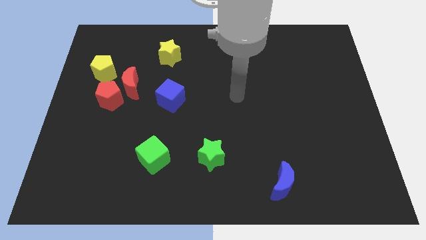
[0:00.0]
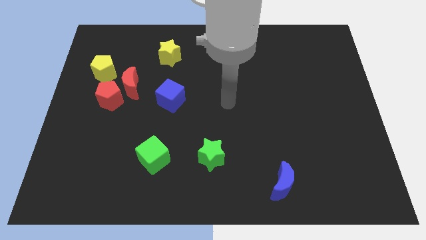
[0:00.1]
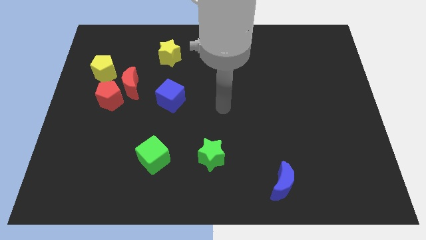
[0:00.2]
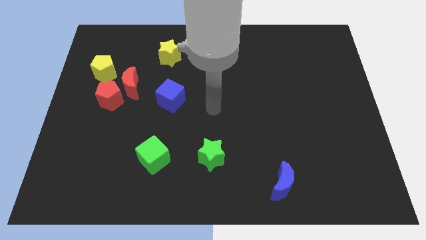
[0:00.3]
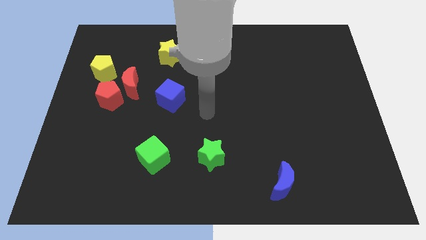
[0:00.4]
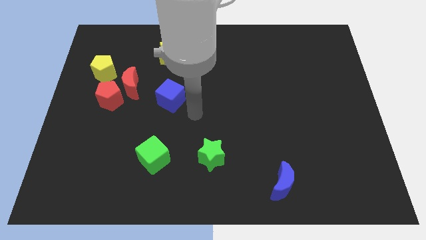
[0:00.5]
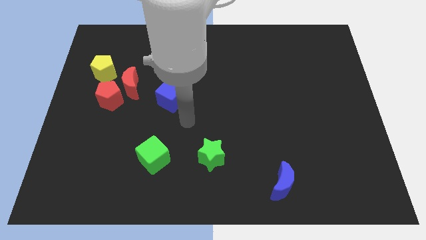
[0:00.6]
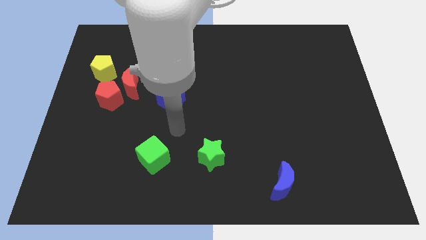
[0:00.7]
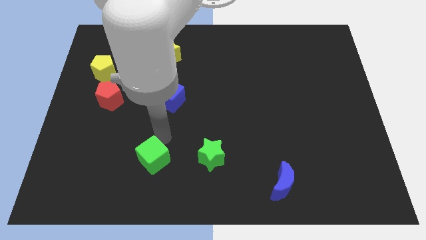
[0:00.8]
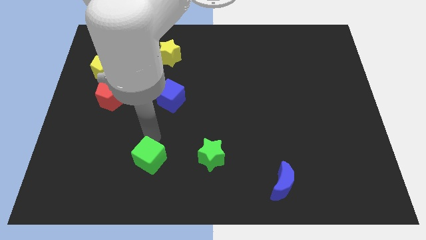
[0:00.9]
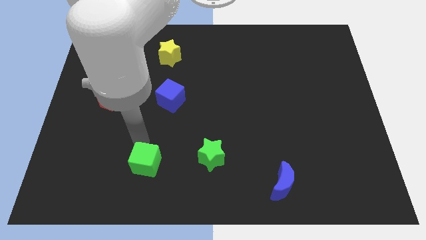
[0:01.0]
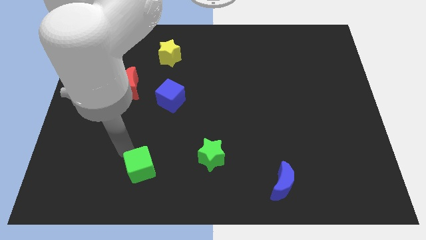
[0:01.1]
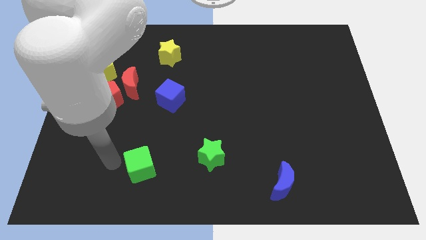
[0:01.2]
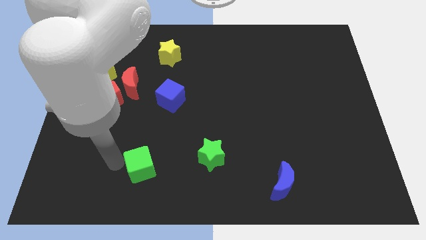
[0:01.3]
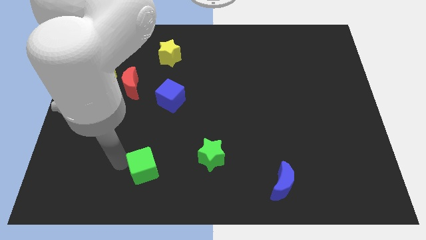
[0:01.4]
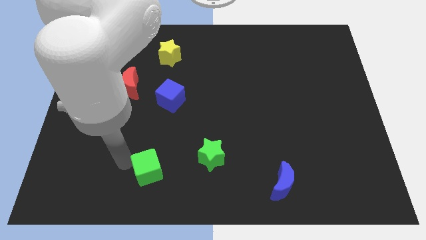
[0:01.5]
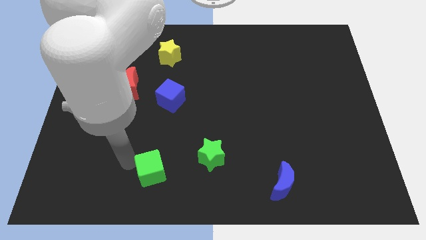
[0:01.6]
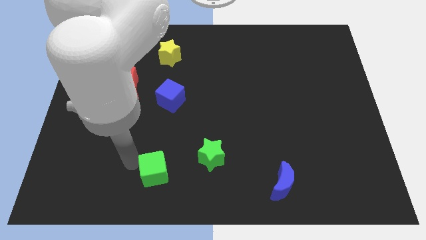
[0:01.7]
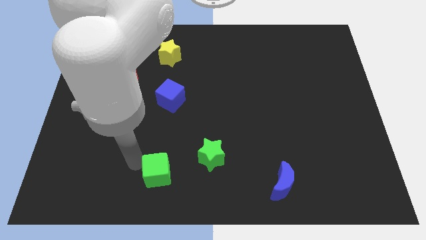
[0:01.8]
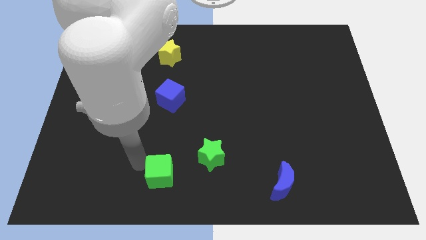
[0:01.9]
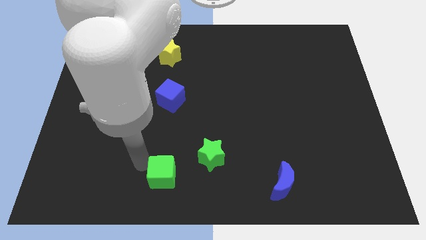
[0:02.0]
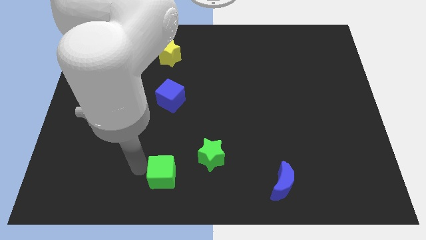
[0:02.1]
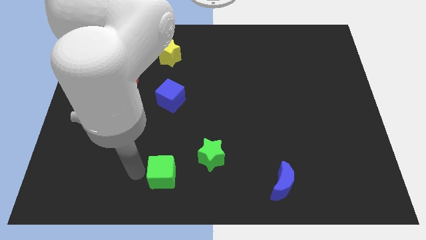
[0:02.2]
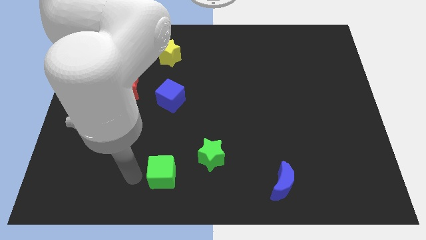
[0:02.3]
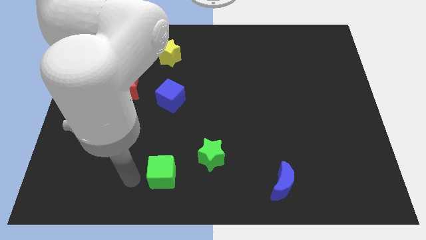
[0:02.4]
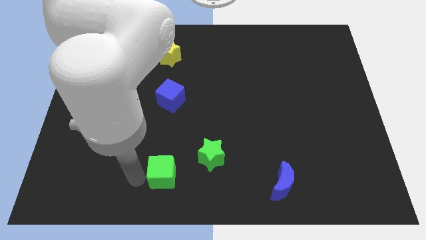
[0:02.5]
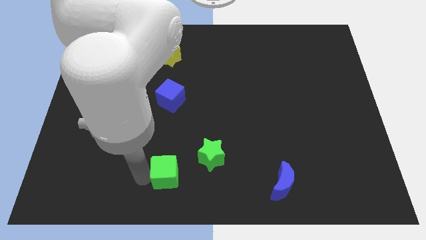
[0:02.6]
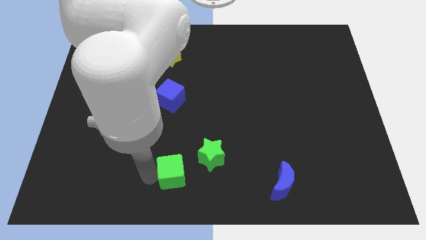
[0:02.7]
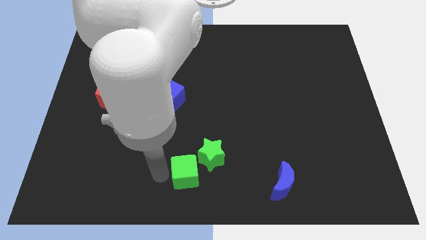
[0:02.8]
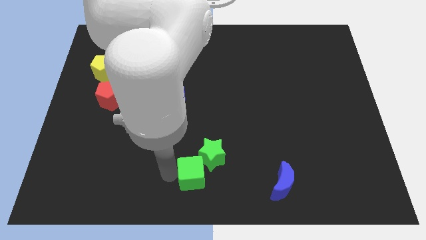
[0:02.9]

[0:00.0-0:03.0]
slide the green cube right a little bit

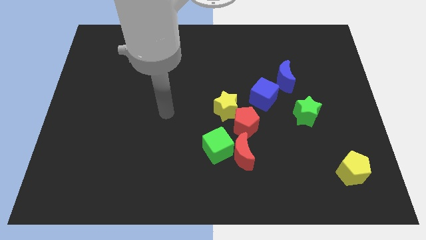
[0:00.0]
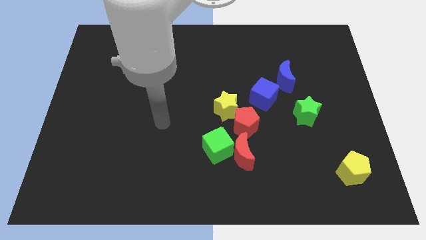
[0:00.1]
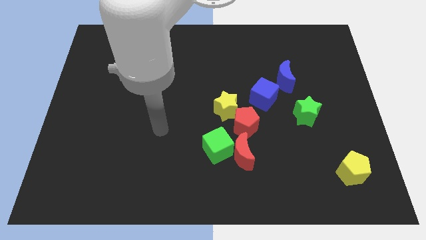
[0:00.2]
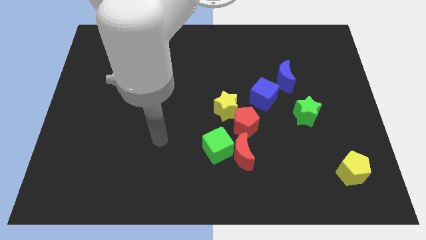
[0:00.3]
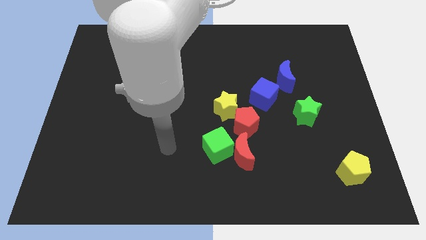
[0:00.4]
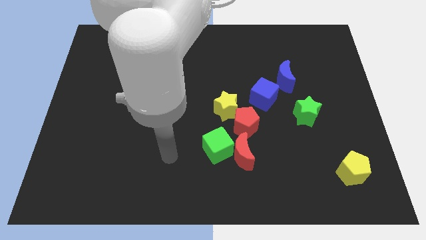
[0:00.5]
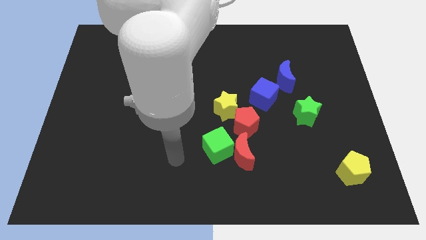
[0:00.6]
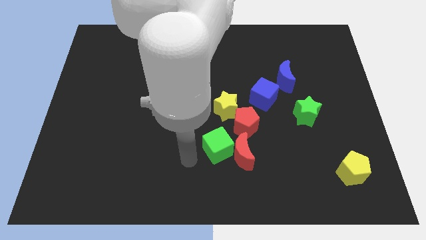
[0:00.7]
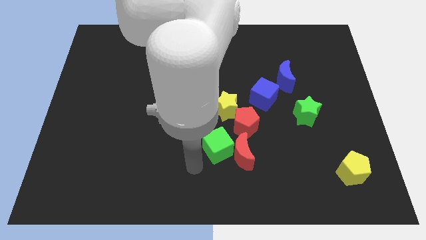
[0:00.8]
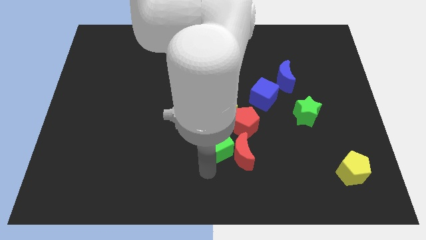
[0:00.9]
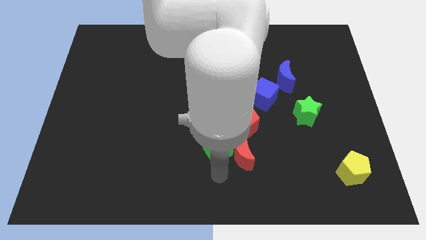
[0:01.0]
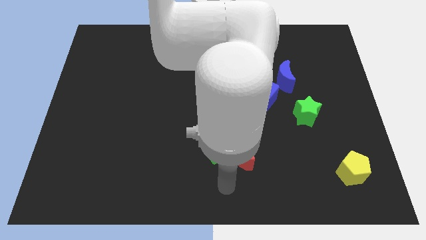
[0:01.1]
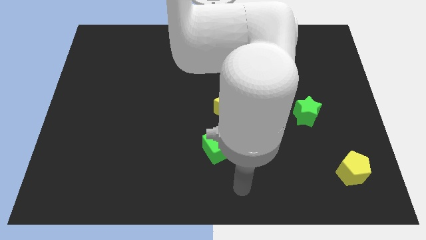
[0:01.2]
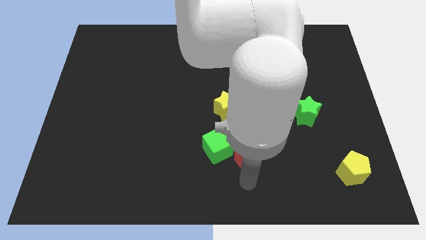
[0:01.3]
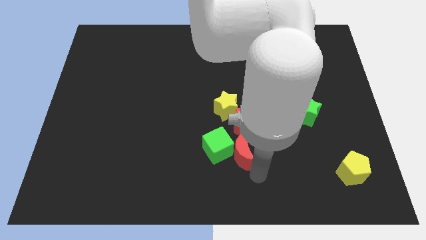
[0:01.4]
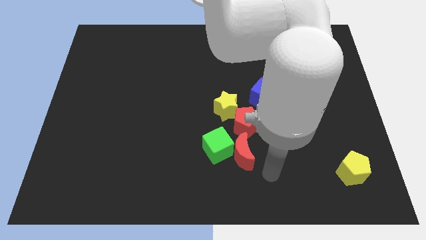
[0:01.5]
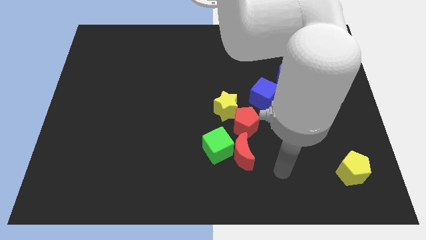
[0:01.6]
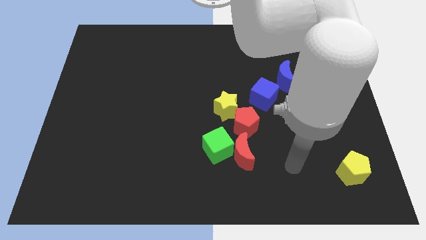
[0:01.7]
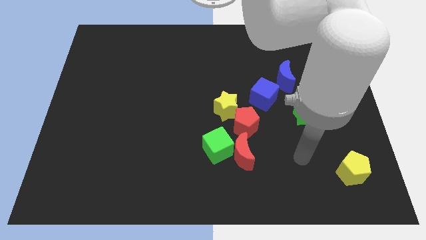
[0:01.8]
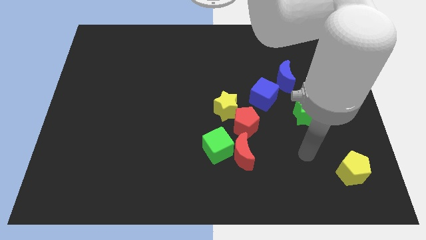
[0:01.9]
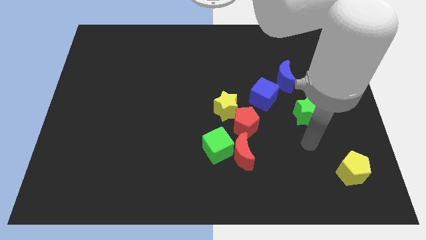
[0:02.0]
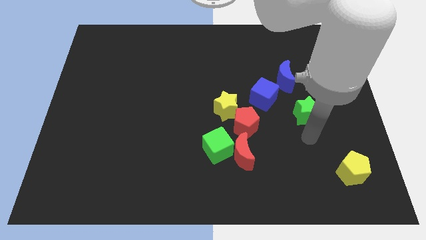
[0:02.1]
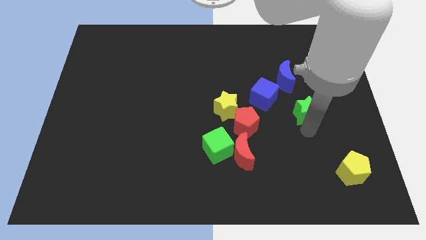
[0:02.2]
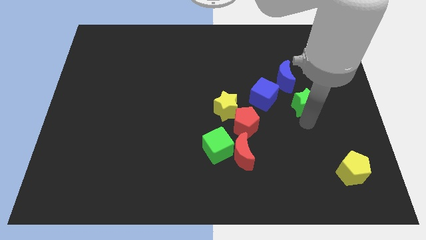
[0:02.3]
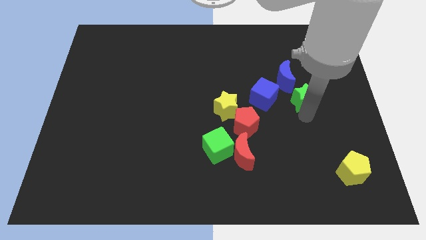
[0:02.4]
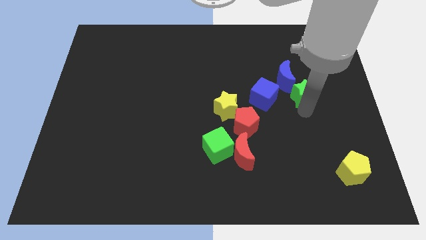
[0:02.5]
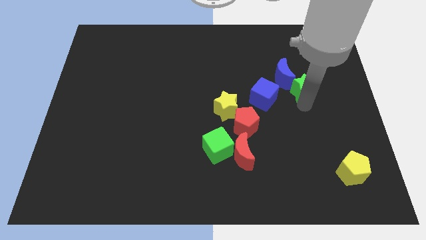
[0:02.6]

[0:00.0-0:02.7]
push the green star up a bit

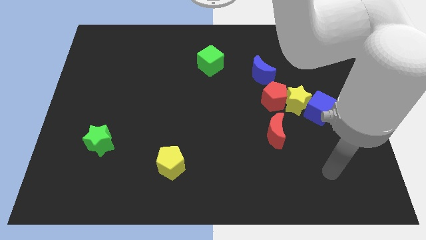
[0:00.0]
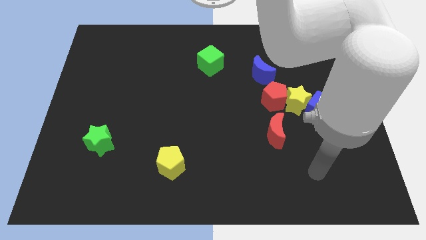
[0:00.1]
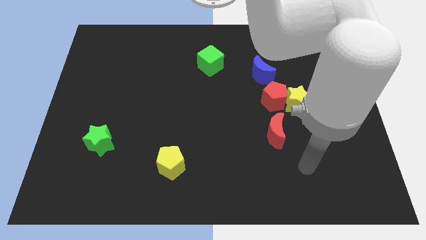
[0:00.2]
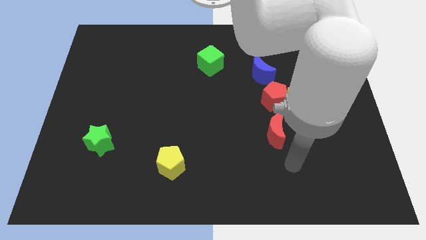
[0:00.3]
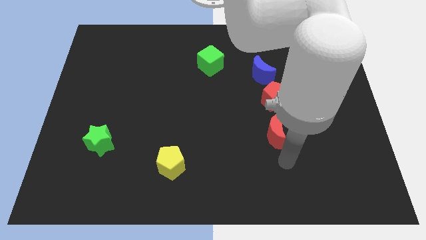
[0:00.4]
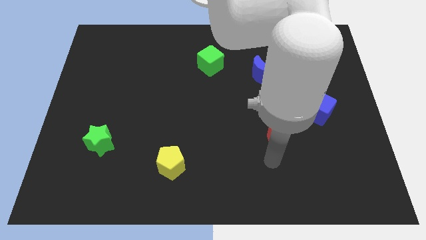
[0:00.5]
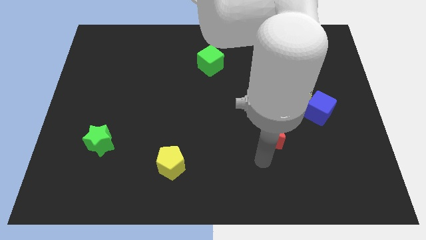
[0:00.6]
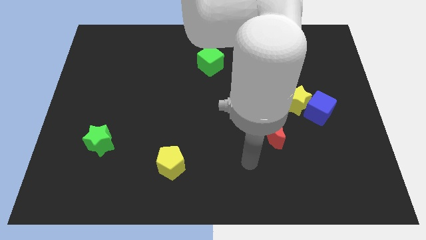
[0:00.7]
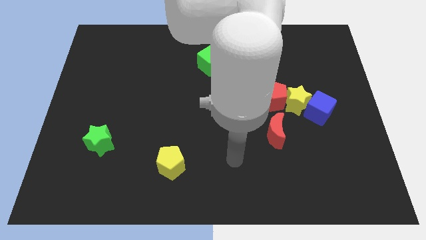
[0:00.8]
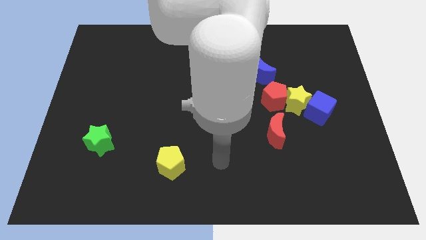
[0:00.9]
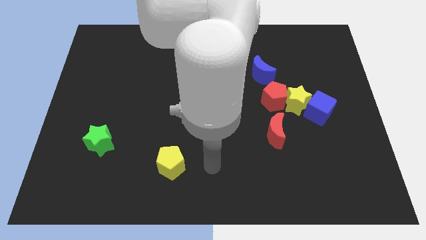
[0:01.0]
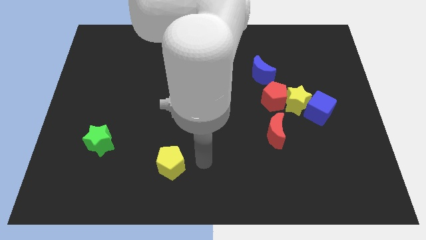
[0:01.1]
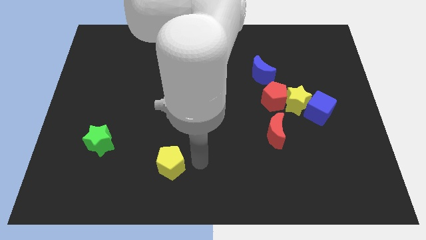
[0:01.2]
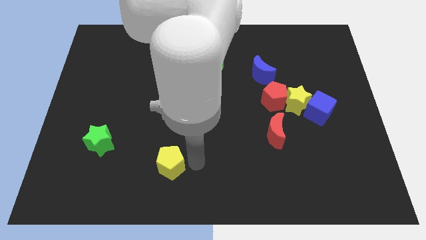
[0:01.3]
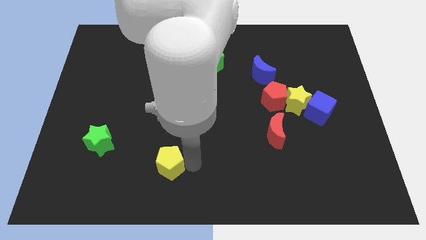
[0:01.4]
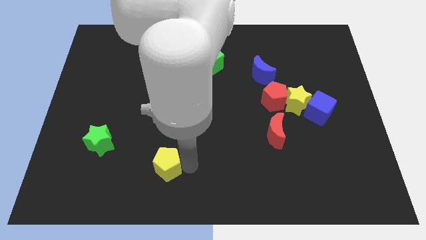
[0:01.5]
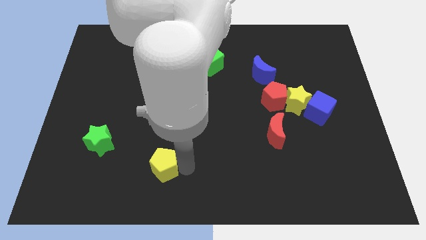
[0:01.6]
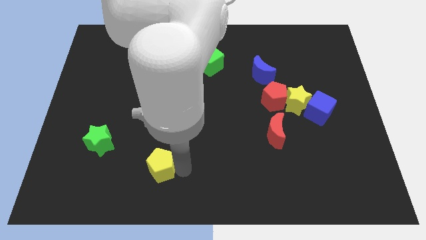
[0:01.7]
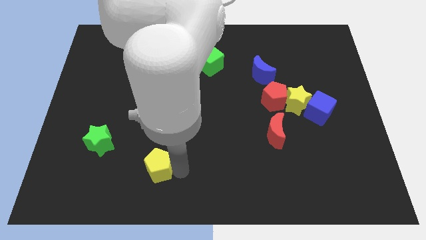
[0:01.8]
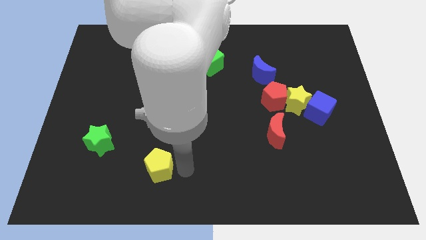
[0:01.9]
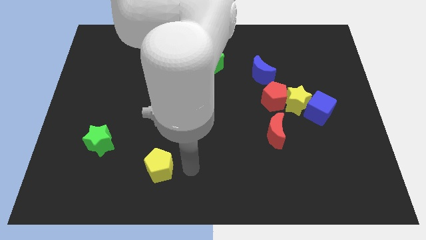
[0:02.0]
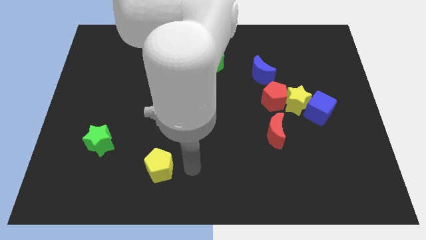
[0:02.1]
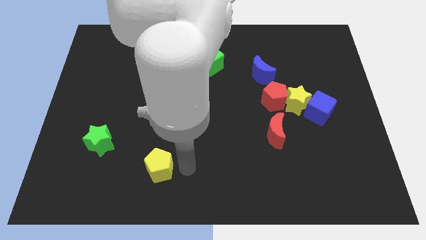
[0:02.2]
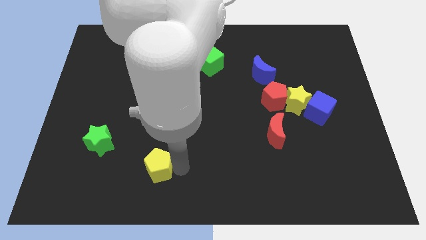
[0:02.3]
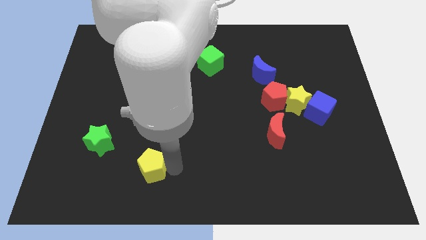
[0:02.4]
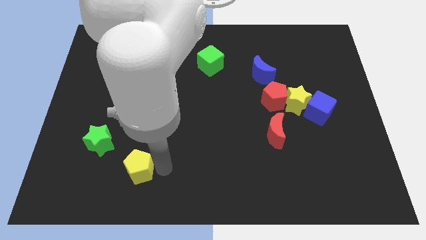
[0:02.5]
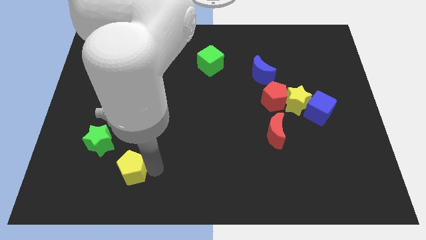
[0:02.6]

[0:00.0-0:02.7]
push the yellow pentagon somewhat to the left
